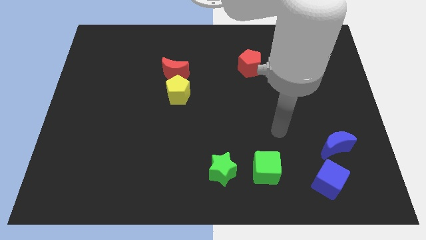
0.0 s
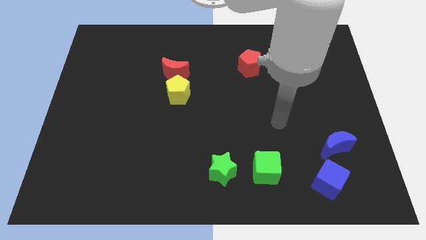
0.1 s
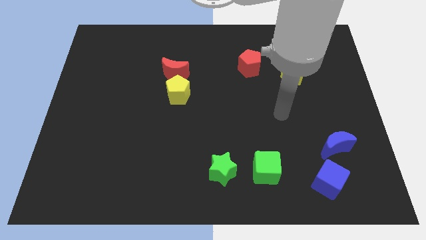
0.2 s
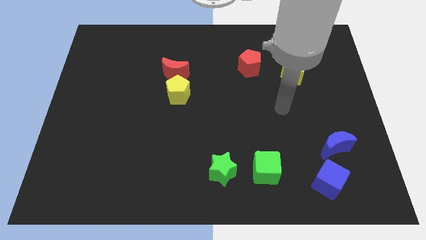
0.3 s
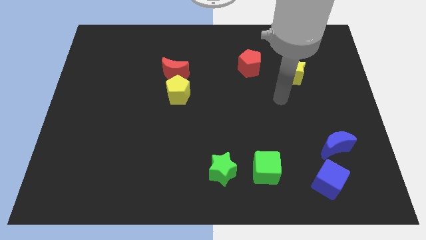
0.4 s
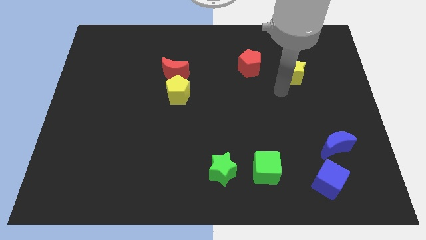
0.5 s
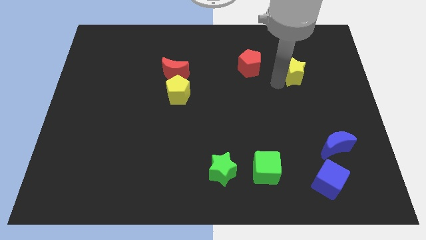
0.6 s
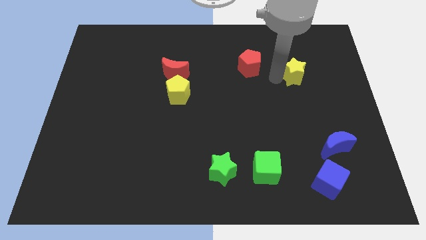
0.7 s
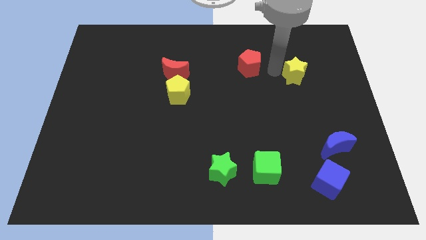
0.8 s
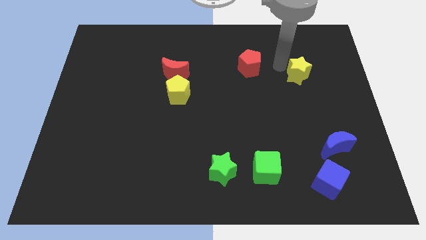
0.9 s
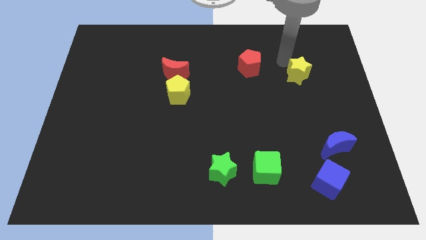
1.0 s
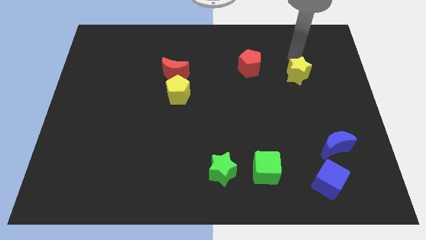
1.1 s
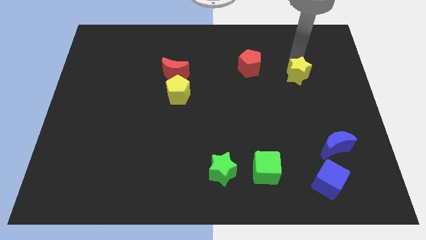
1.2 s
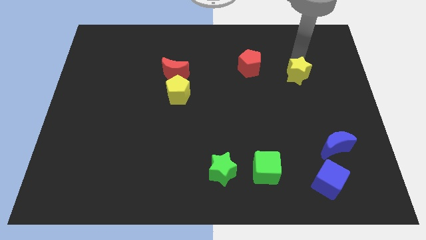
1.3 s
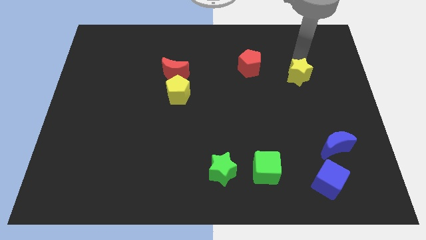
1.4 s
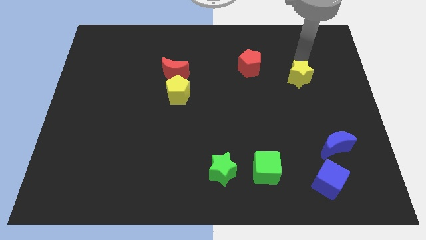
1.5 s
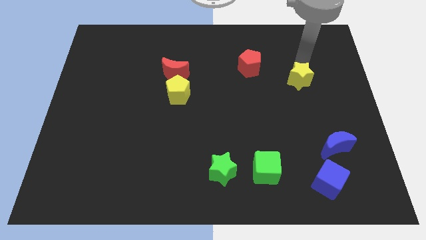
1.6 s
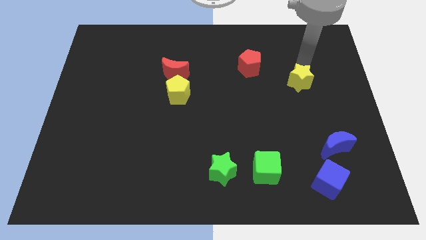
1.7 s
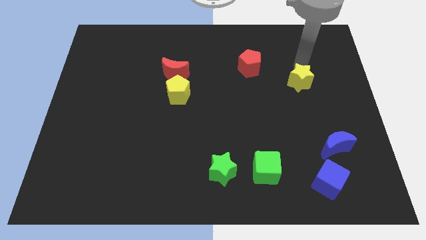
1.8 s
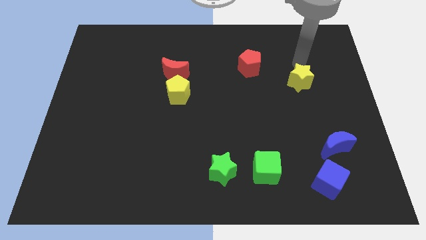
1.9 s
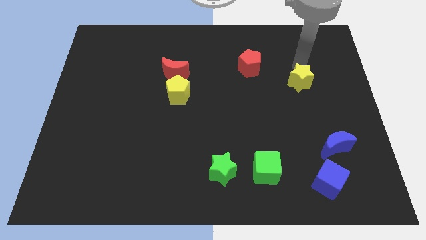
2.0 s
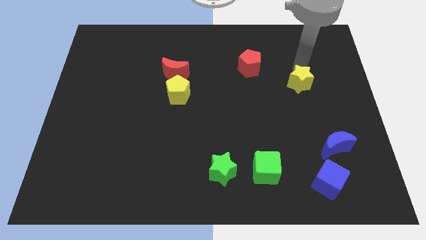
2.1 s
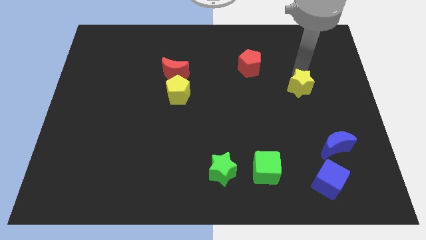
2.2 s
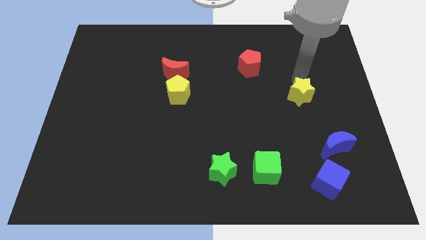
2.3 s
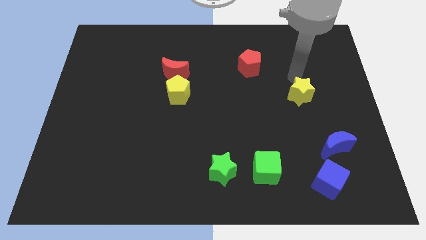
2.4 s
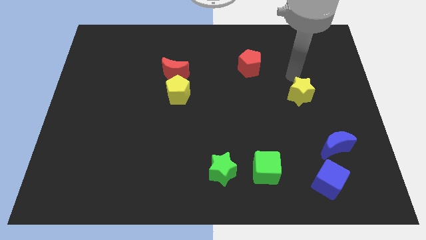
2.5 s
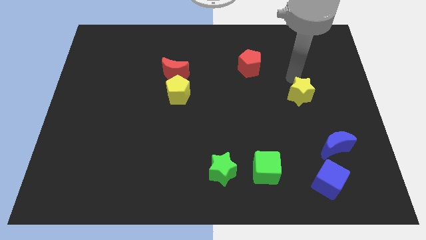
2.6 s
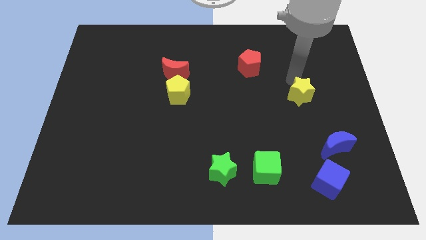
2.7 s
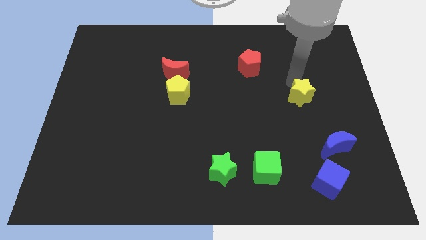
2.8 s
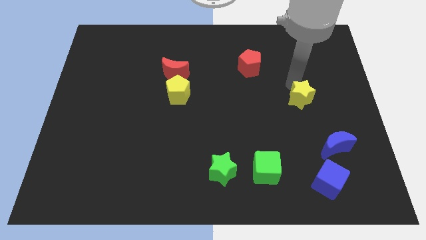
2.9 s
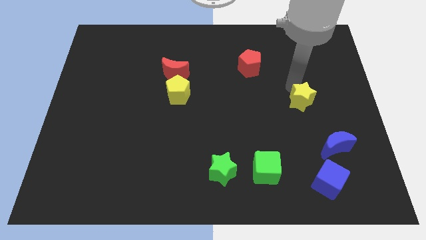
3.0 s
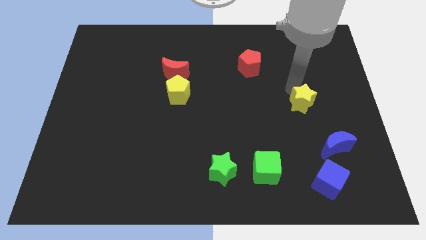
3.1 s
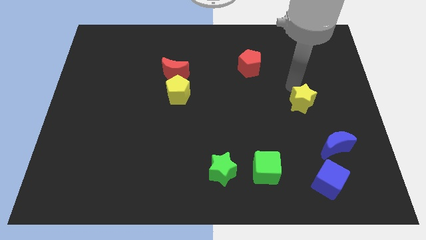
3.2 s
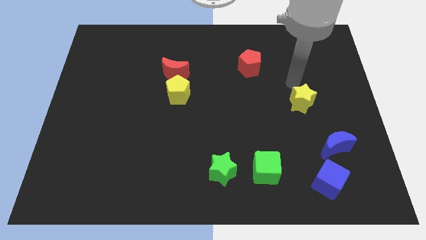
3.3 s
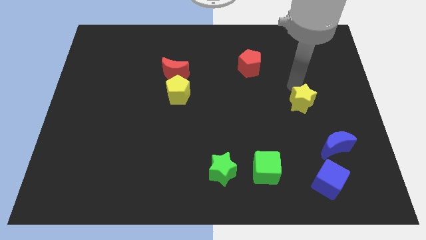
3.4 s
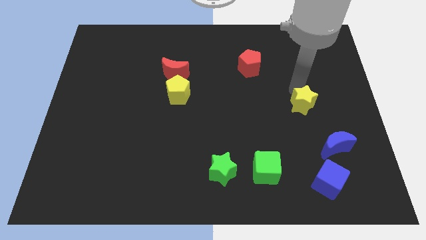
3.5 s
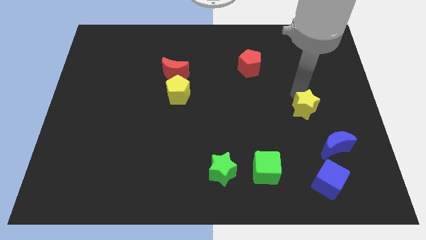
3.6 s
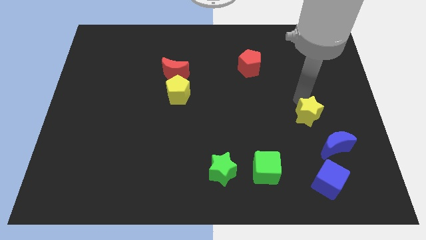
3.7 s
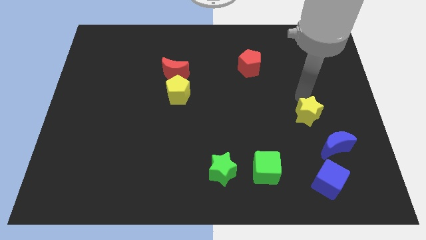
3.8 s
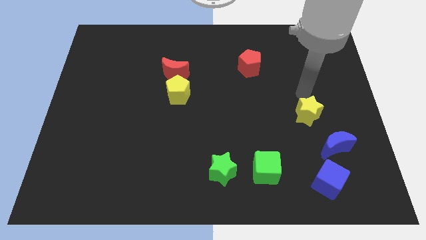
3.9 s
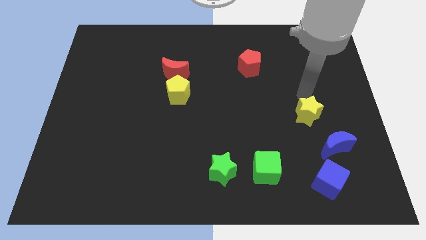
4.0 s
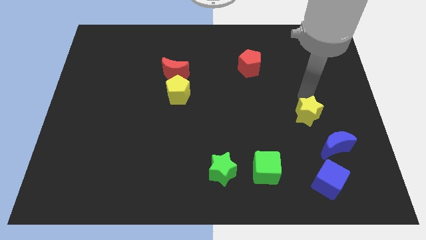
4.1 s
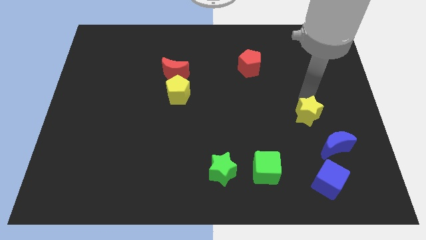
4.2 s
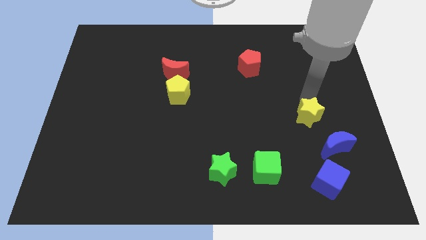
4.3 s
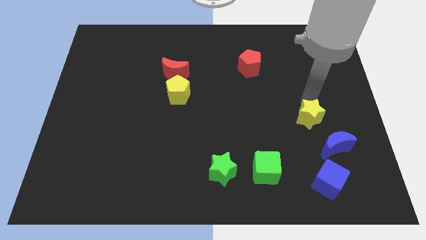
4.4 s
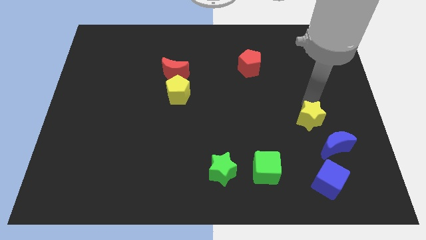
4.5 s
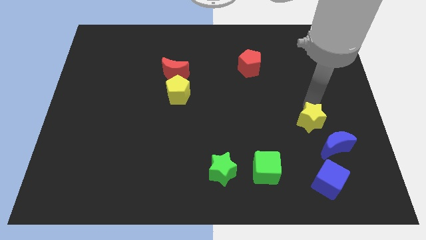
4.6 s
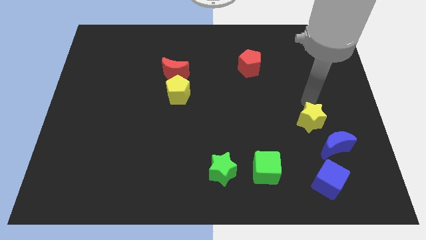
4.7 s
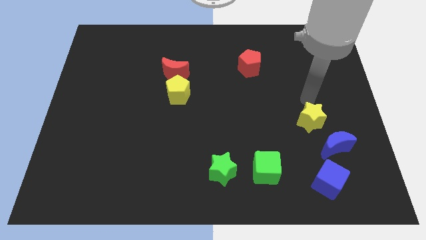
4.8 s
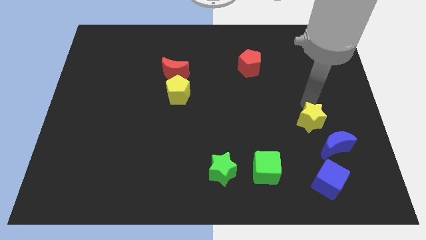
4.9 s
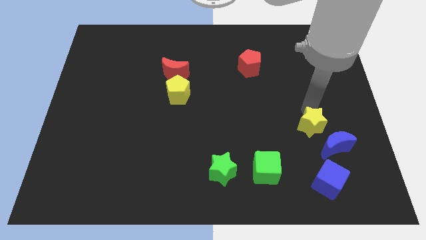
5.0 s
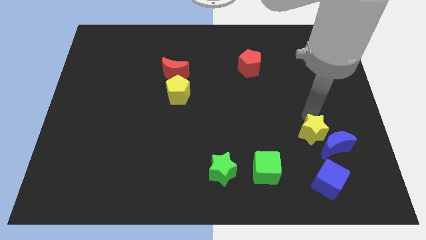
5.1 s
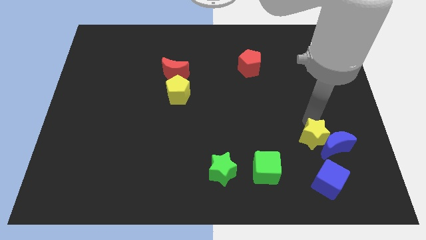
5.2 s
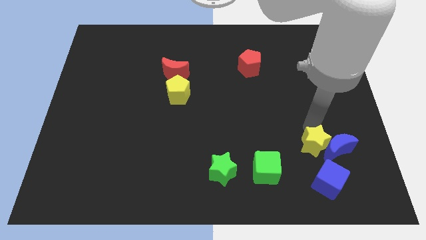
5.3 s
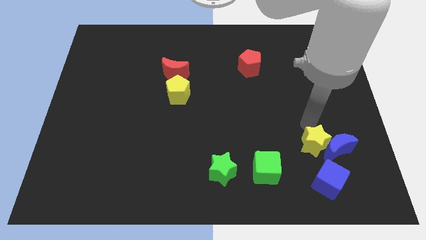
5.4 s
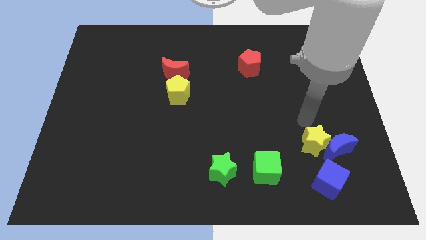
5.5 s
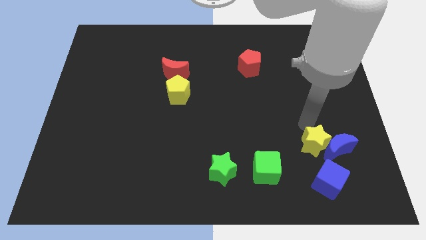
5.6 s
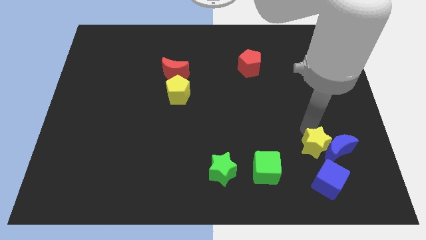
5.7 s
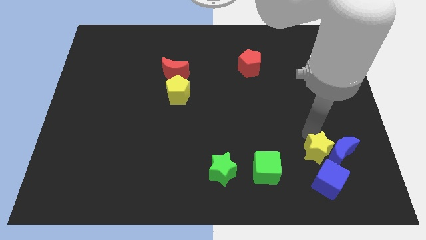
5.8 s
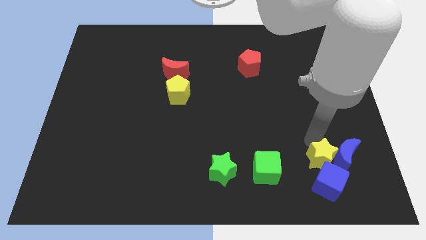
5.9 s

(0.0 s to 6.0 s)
move the yellow star close to the blue cube
